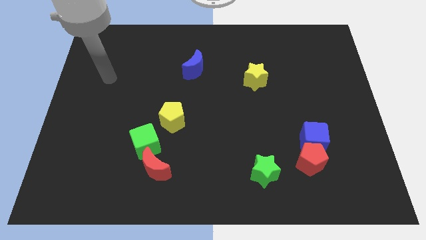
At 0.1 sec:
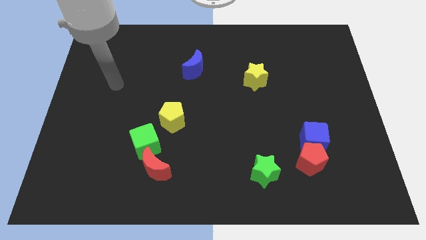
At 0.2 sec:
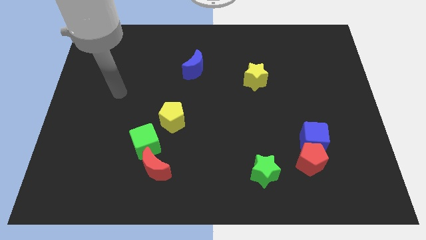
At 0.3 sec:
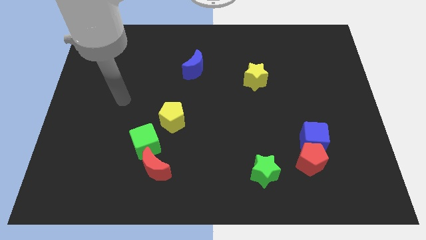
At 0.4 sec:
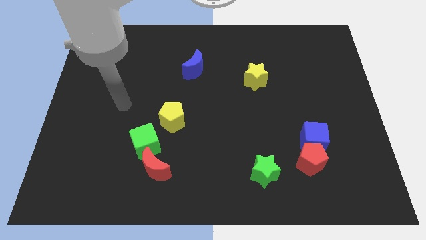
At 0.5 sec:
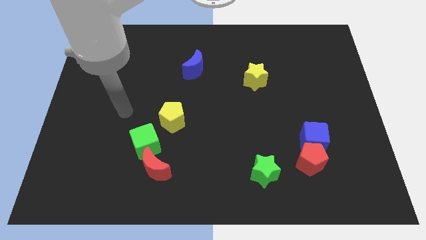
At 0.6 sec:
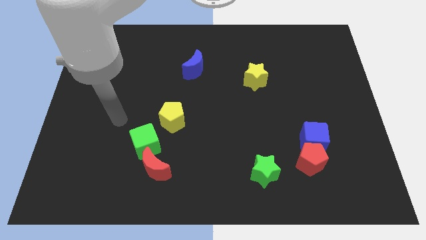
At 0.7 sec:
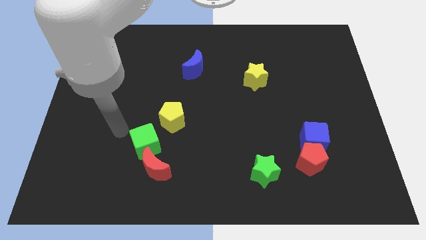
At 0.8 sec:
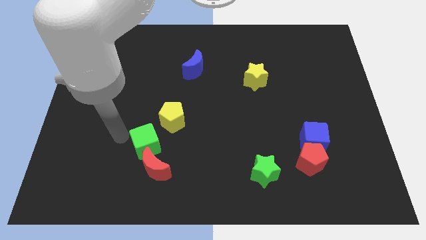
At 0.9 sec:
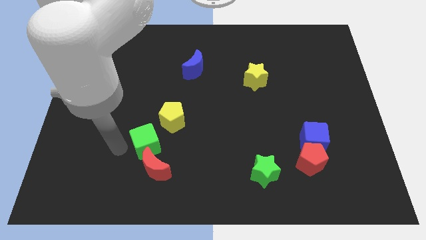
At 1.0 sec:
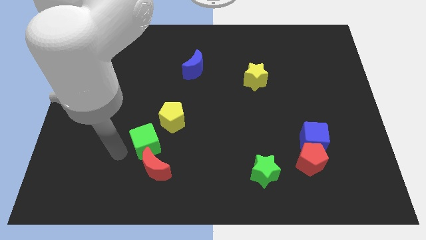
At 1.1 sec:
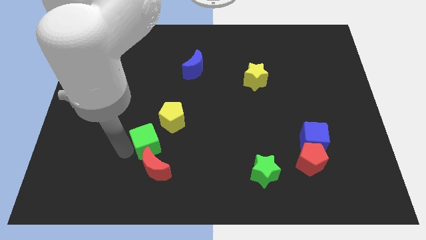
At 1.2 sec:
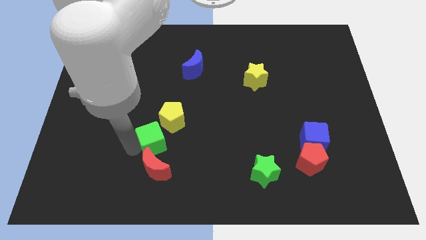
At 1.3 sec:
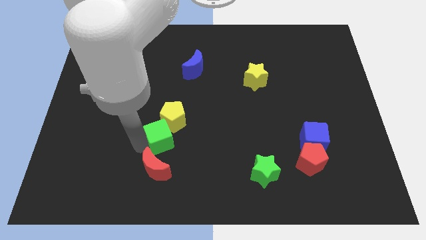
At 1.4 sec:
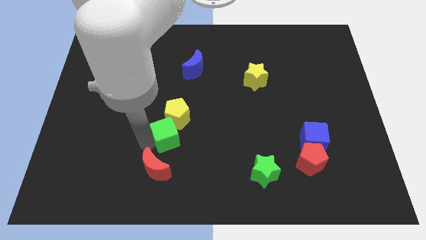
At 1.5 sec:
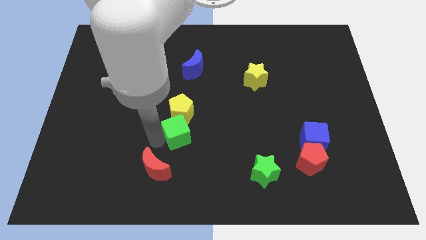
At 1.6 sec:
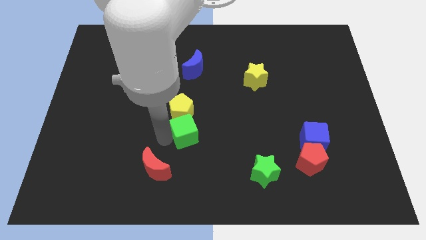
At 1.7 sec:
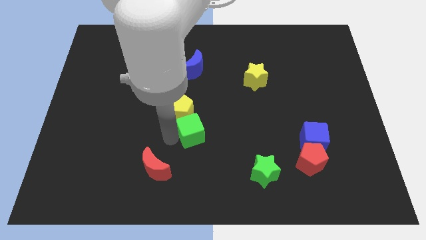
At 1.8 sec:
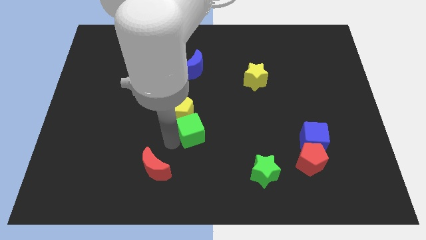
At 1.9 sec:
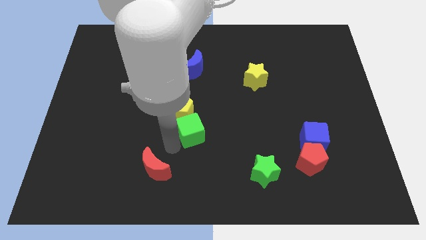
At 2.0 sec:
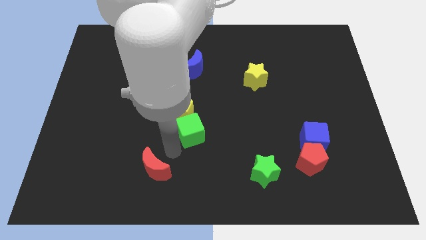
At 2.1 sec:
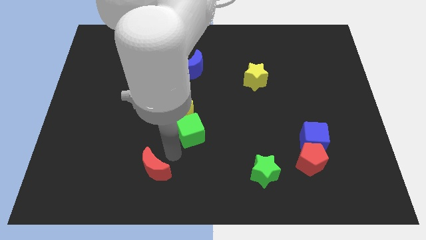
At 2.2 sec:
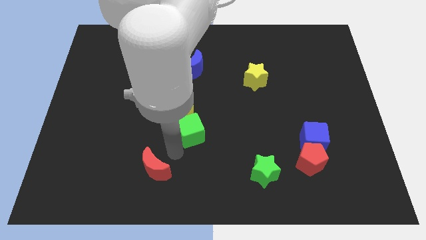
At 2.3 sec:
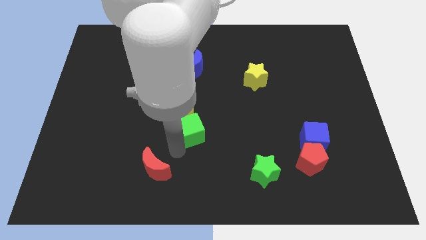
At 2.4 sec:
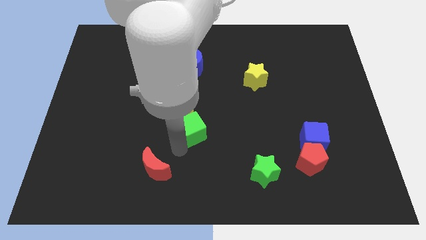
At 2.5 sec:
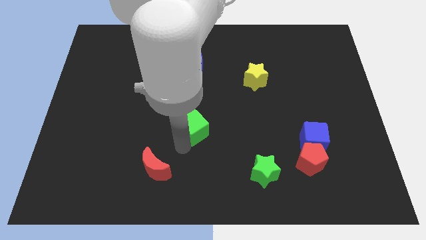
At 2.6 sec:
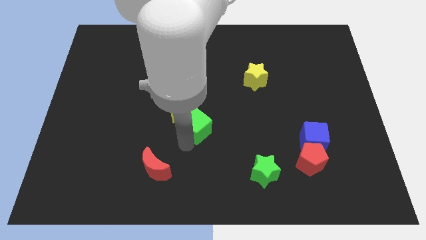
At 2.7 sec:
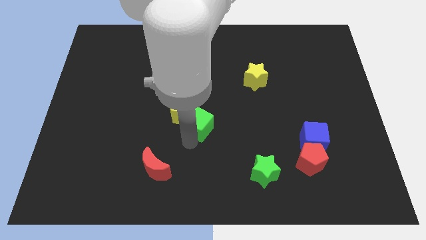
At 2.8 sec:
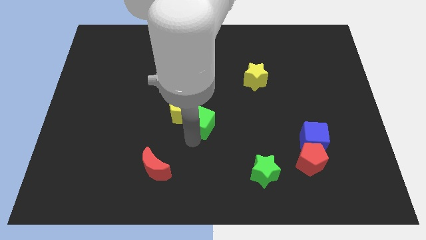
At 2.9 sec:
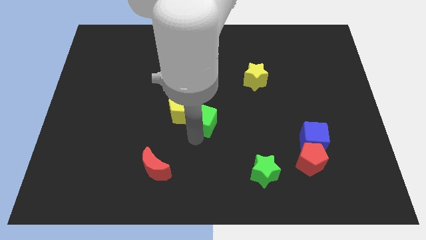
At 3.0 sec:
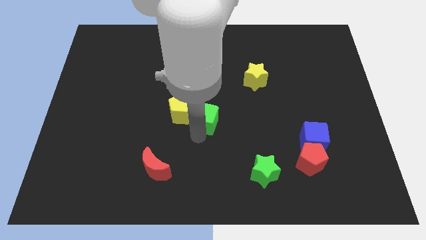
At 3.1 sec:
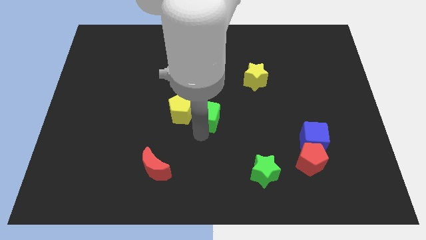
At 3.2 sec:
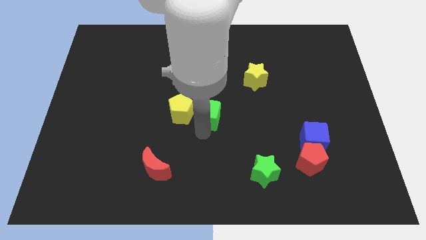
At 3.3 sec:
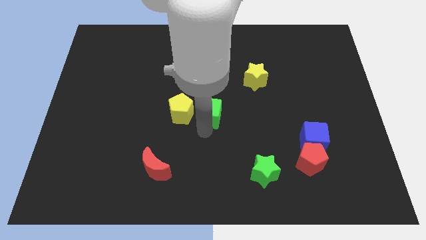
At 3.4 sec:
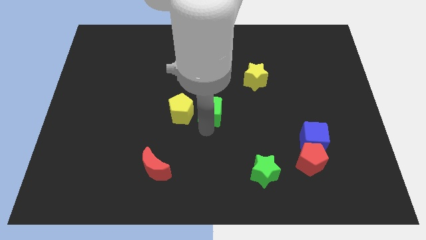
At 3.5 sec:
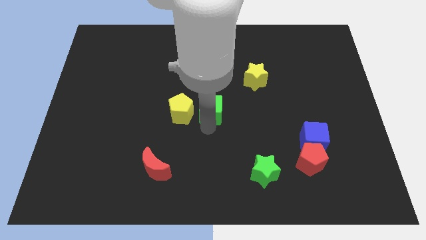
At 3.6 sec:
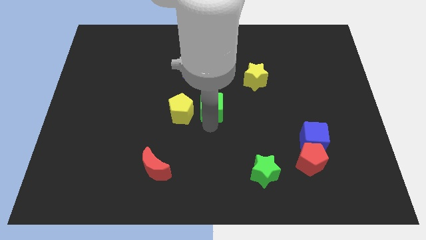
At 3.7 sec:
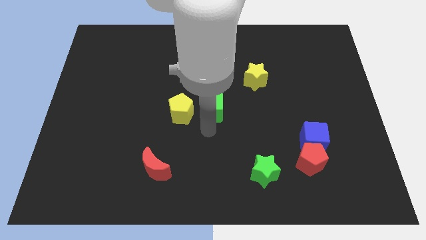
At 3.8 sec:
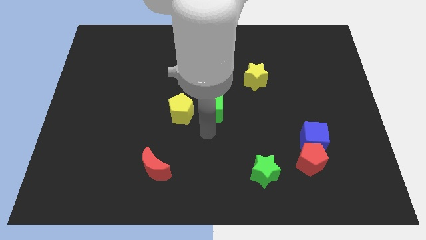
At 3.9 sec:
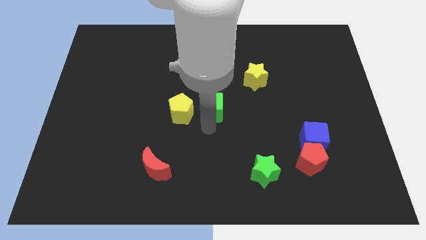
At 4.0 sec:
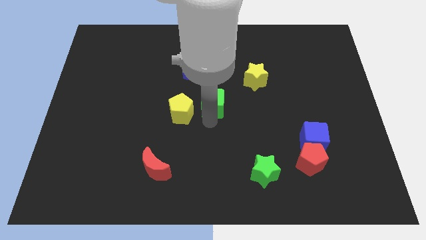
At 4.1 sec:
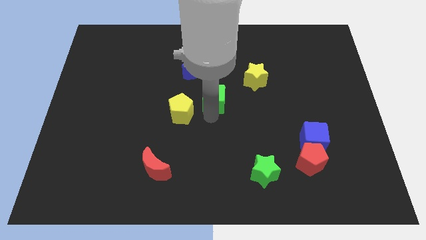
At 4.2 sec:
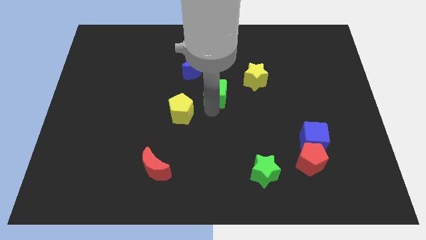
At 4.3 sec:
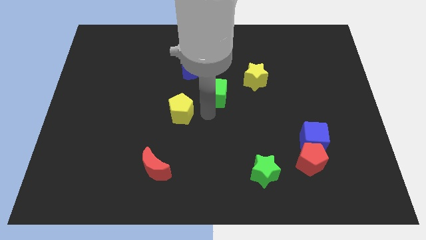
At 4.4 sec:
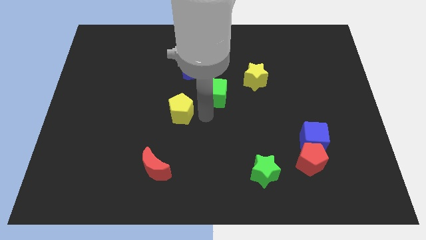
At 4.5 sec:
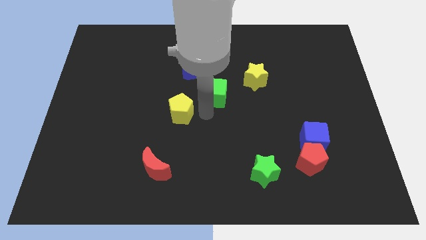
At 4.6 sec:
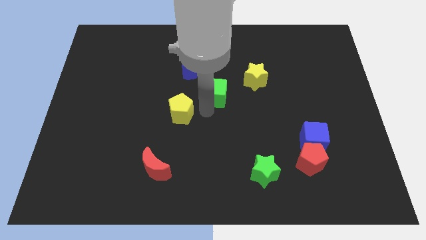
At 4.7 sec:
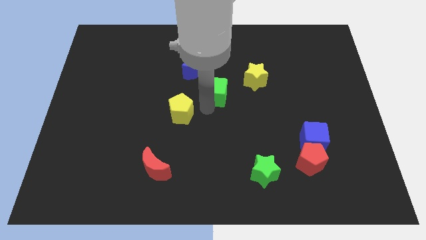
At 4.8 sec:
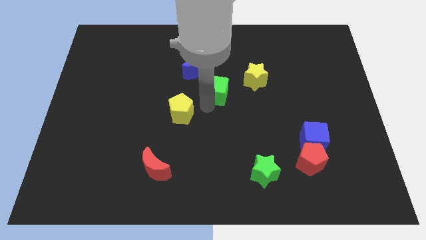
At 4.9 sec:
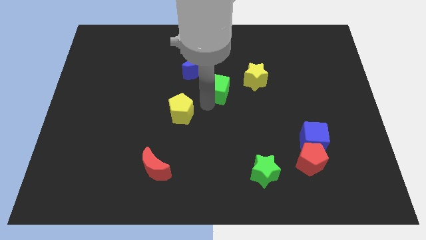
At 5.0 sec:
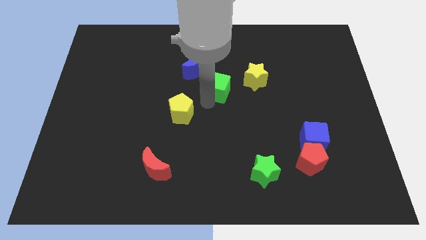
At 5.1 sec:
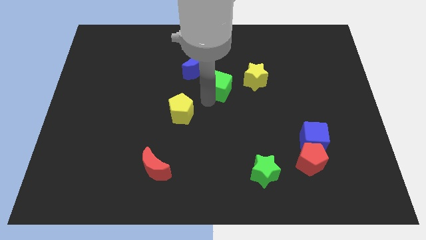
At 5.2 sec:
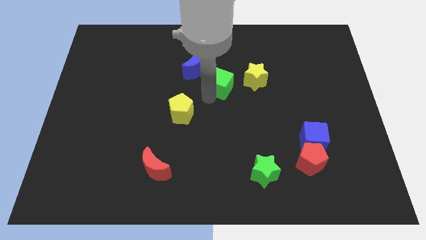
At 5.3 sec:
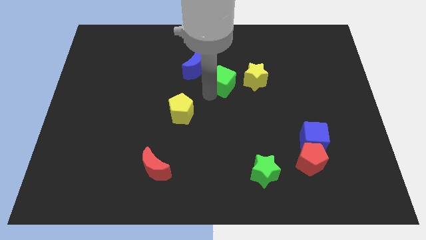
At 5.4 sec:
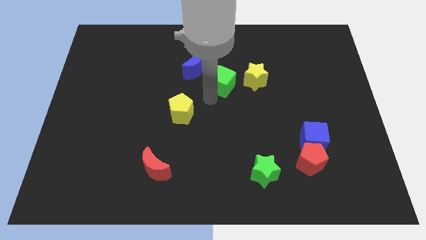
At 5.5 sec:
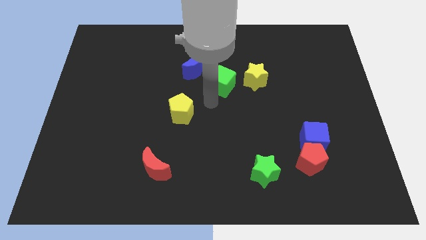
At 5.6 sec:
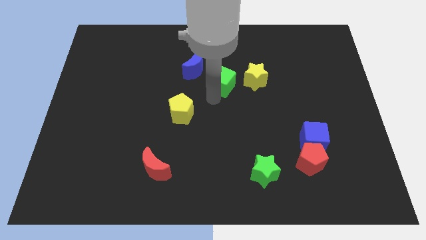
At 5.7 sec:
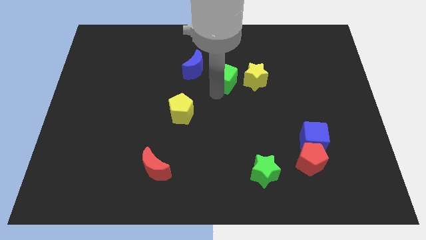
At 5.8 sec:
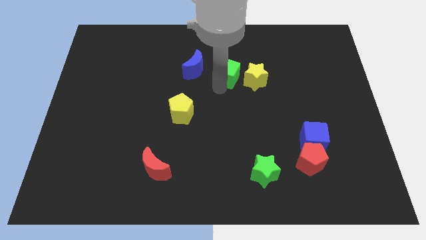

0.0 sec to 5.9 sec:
put the green cube to the top left side of the yellow star

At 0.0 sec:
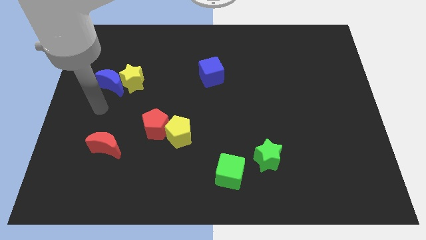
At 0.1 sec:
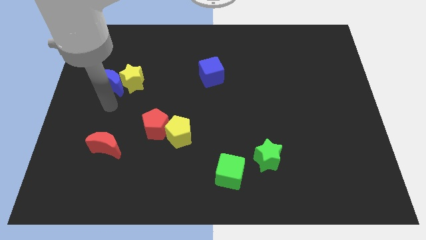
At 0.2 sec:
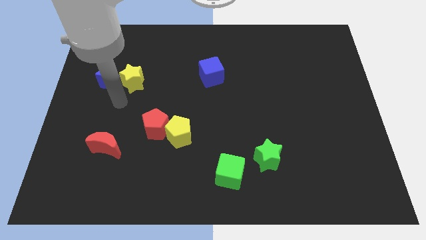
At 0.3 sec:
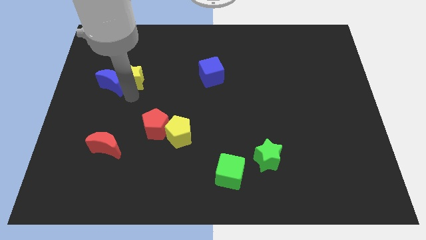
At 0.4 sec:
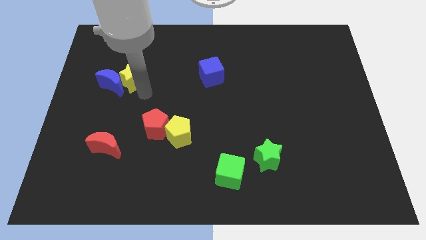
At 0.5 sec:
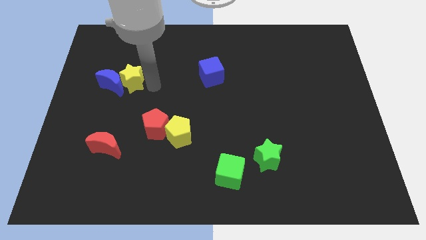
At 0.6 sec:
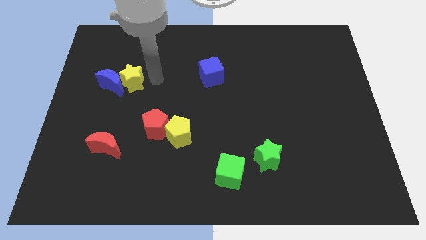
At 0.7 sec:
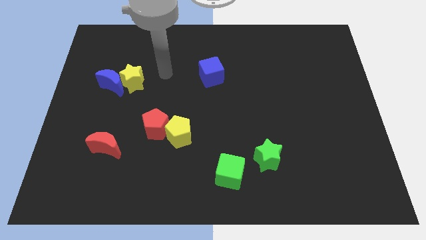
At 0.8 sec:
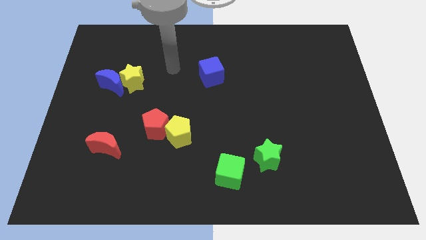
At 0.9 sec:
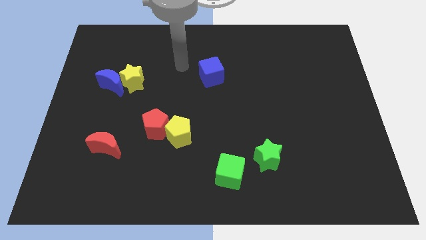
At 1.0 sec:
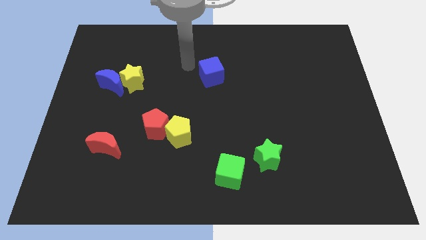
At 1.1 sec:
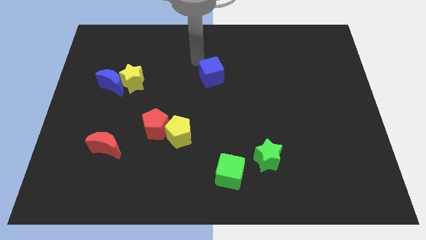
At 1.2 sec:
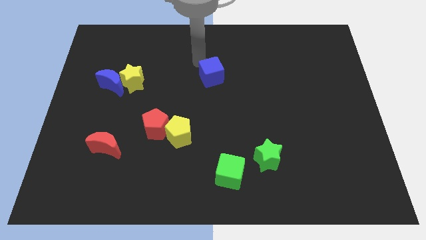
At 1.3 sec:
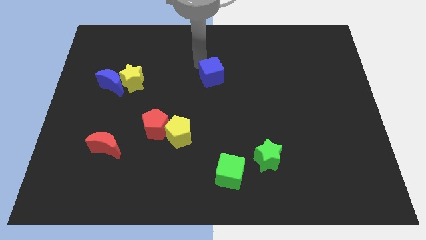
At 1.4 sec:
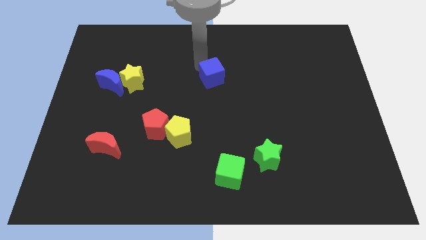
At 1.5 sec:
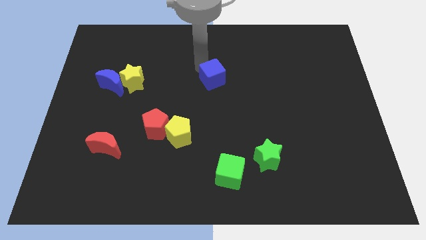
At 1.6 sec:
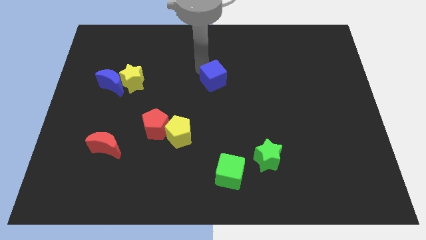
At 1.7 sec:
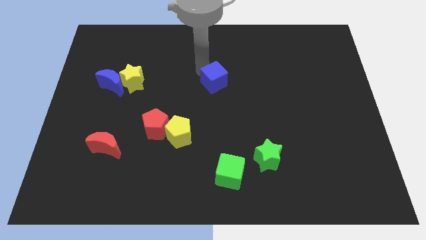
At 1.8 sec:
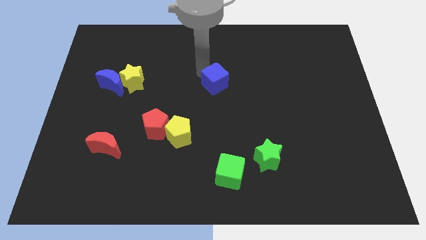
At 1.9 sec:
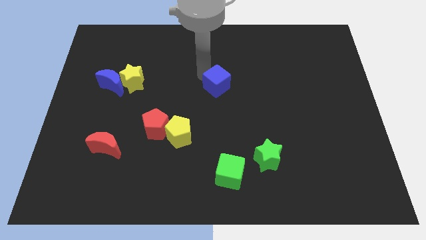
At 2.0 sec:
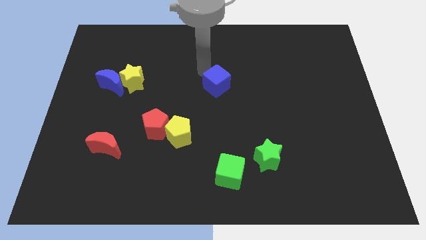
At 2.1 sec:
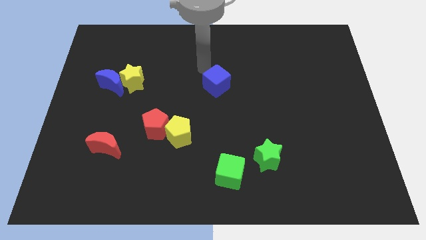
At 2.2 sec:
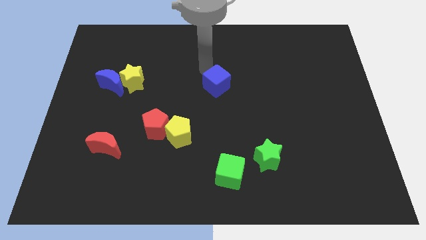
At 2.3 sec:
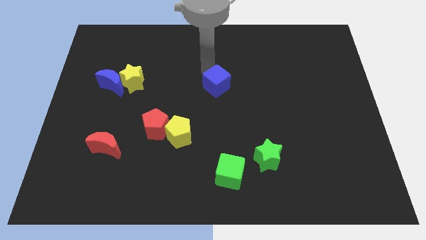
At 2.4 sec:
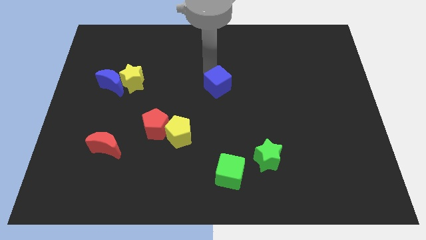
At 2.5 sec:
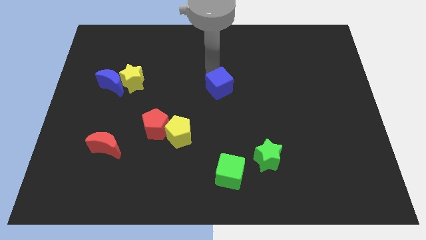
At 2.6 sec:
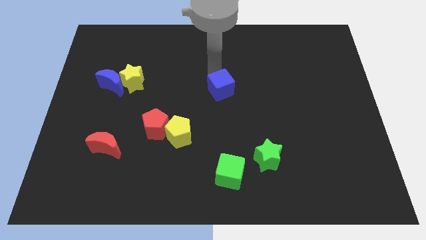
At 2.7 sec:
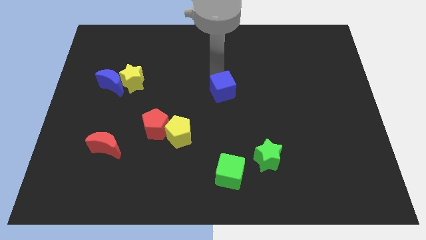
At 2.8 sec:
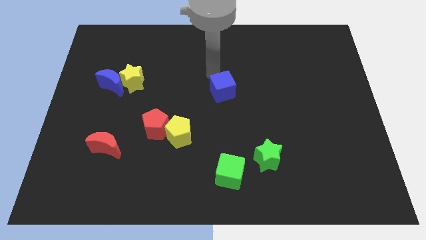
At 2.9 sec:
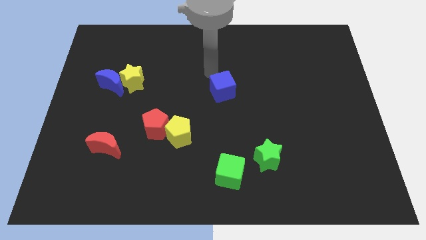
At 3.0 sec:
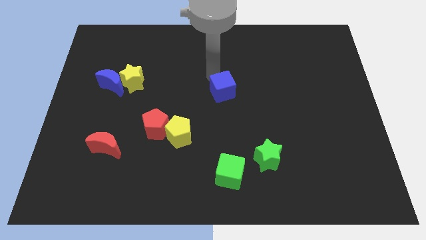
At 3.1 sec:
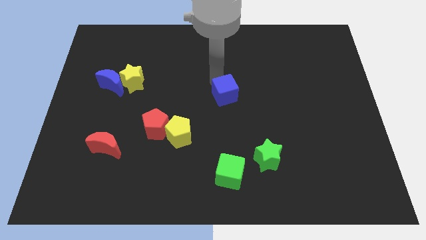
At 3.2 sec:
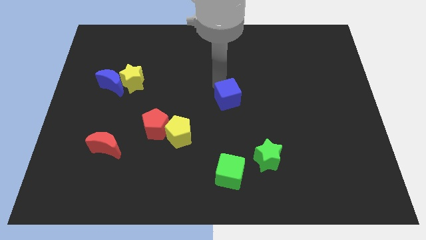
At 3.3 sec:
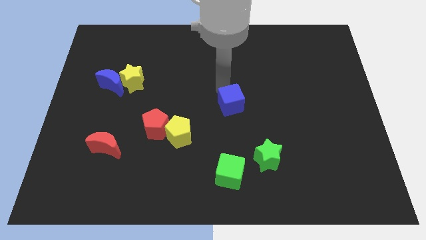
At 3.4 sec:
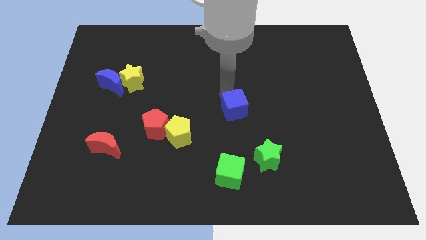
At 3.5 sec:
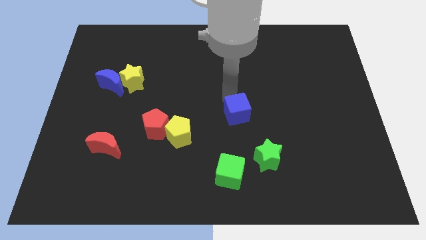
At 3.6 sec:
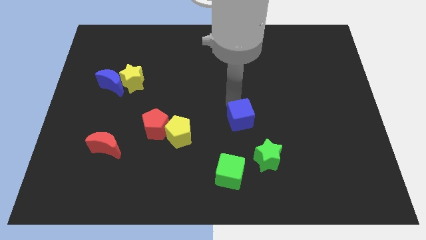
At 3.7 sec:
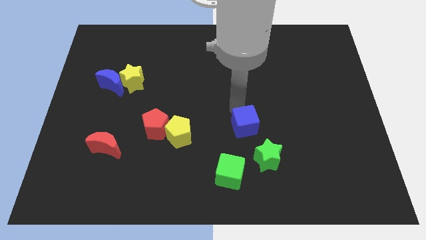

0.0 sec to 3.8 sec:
put the blue cube to the top left side of the green star
